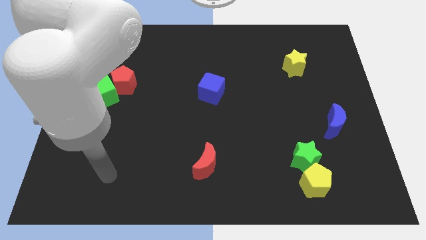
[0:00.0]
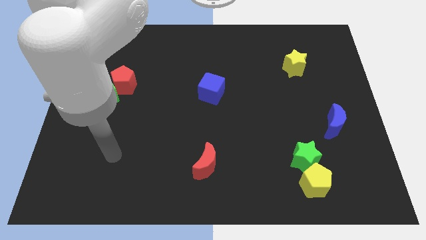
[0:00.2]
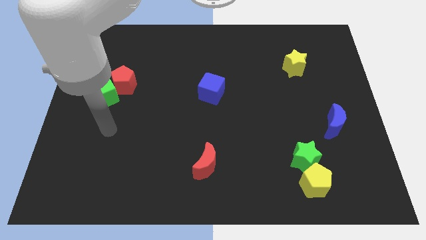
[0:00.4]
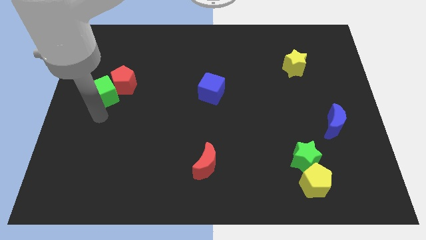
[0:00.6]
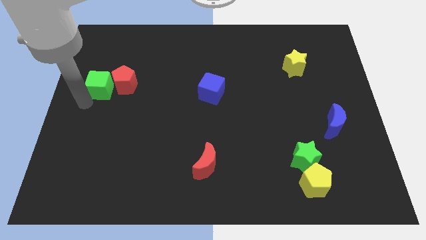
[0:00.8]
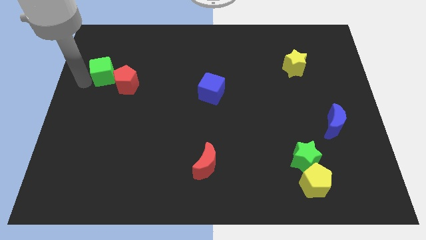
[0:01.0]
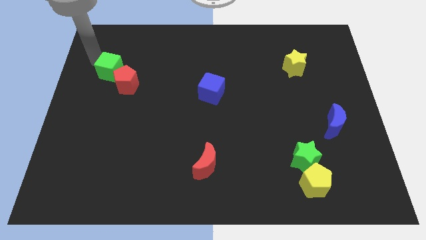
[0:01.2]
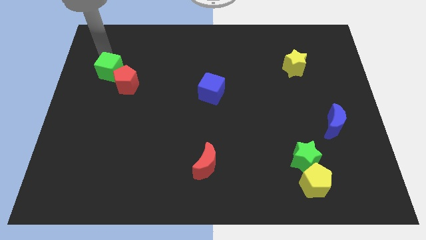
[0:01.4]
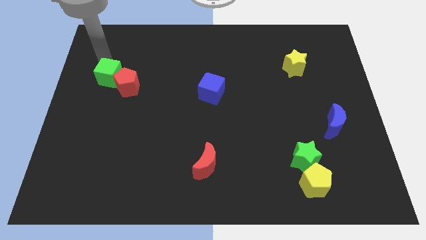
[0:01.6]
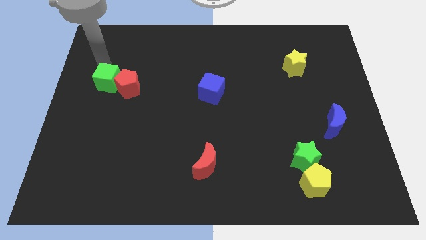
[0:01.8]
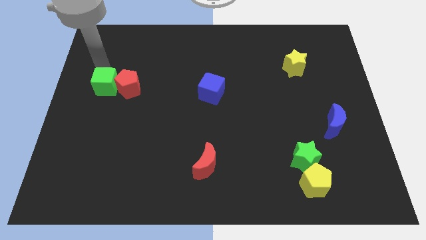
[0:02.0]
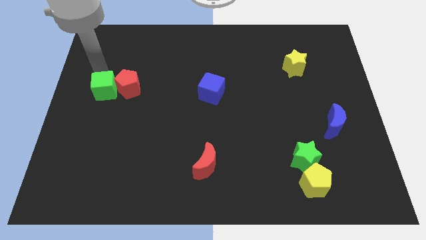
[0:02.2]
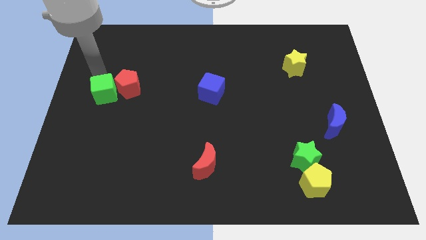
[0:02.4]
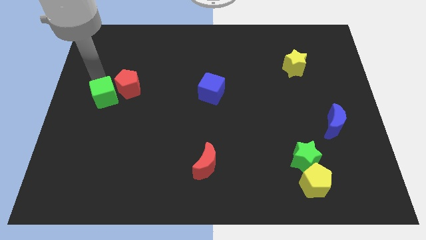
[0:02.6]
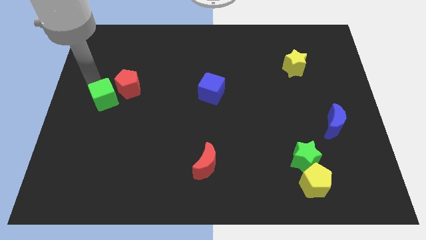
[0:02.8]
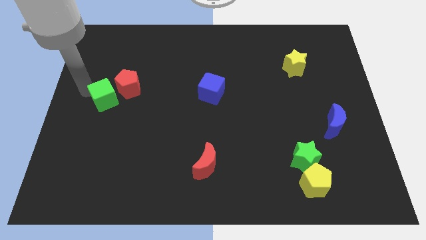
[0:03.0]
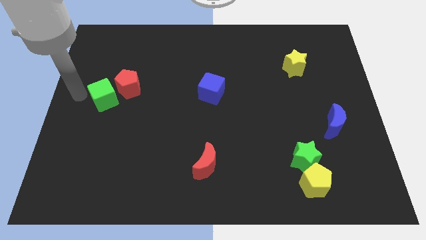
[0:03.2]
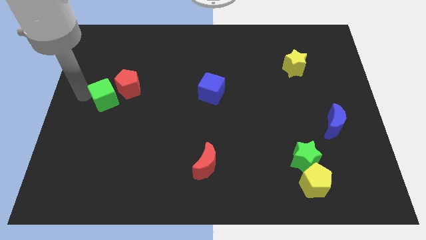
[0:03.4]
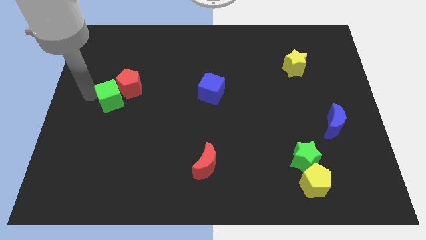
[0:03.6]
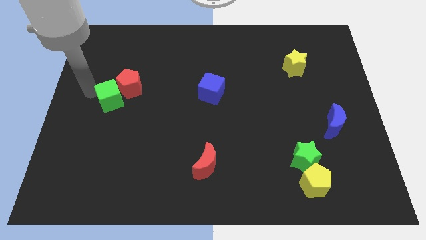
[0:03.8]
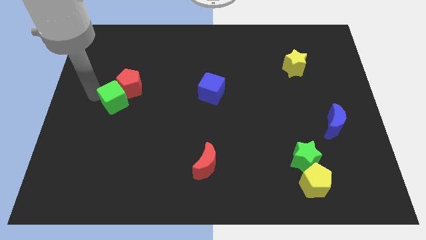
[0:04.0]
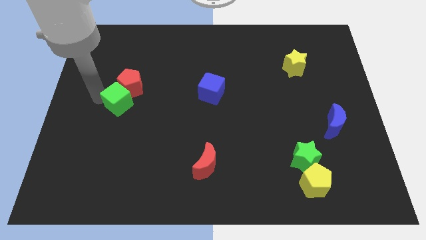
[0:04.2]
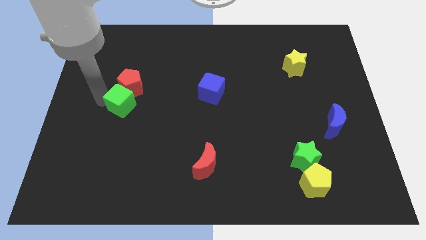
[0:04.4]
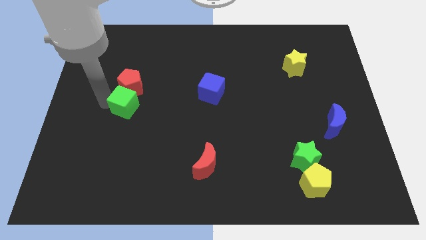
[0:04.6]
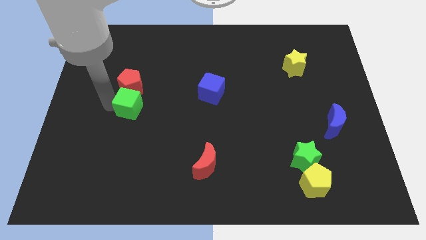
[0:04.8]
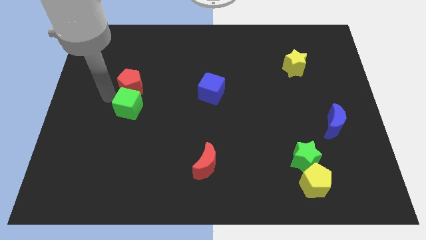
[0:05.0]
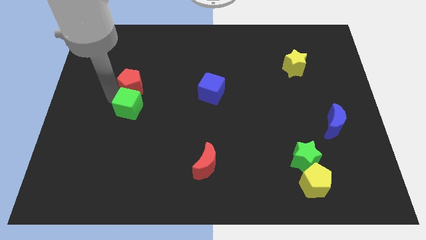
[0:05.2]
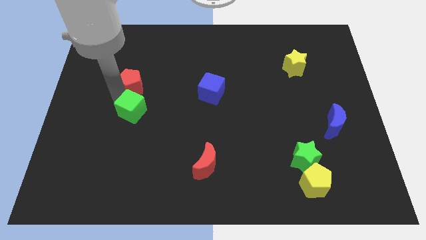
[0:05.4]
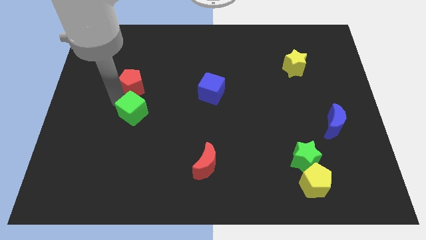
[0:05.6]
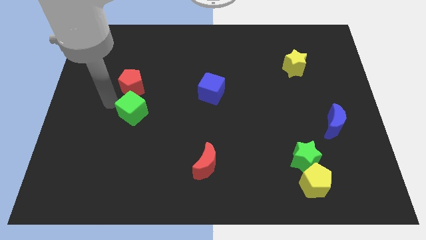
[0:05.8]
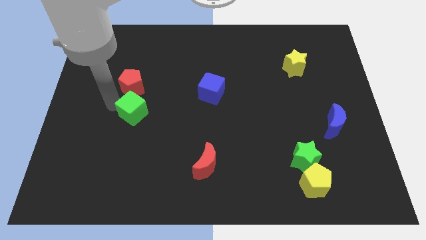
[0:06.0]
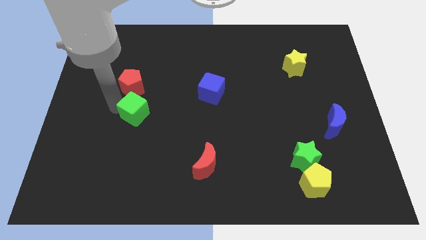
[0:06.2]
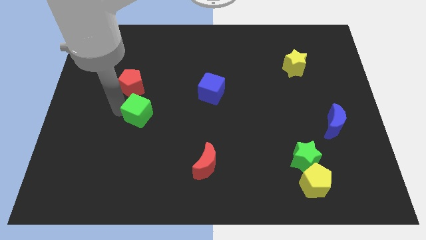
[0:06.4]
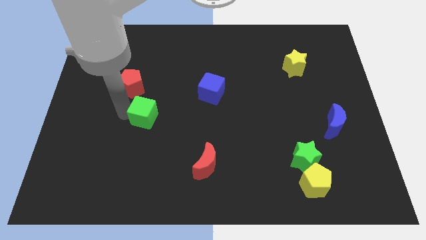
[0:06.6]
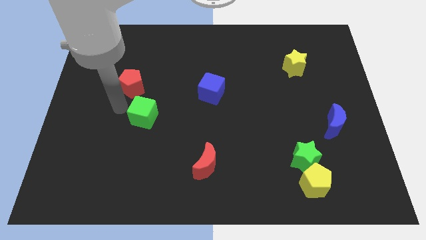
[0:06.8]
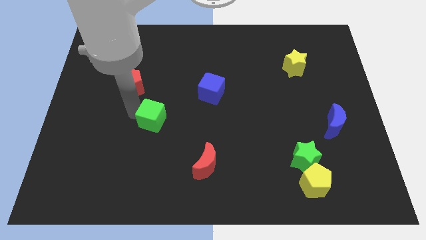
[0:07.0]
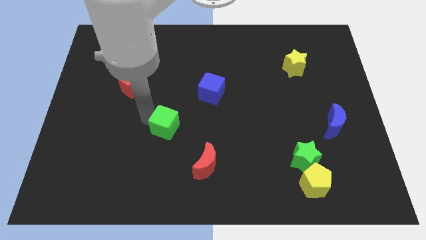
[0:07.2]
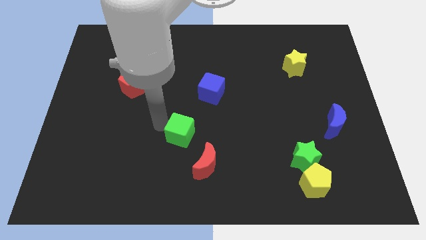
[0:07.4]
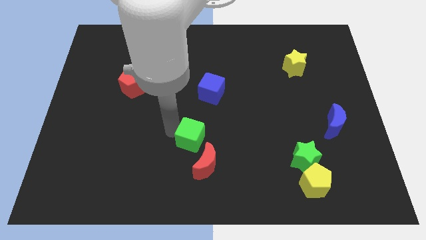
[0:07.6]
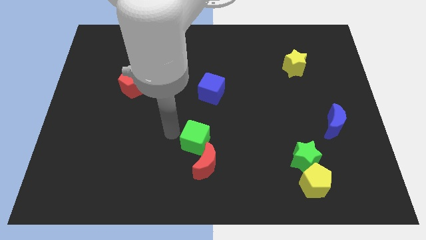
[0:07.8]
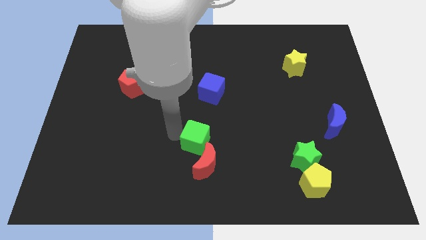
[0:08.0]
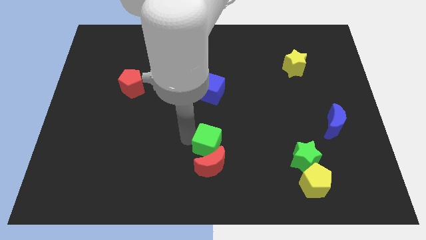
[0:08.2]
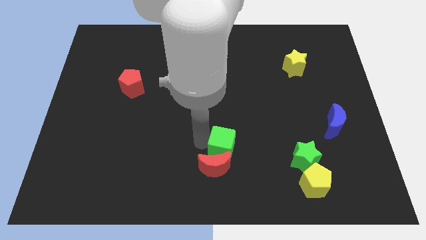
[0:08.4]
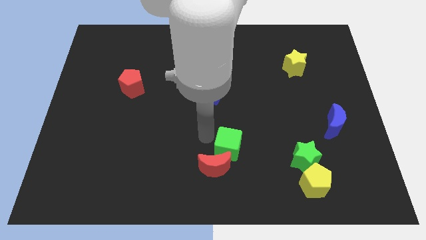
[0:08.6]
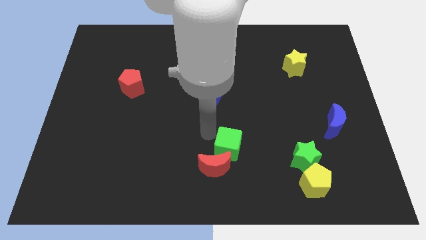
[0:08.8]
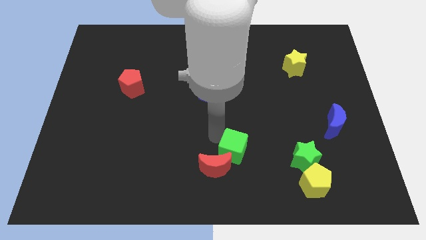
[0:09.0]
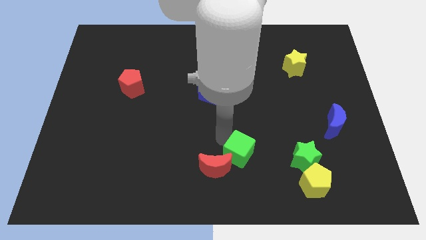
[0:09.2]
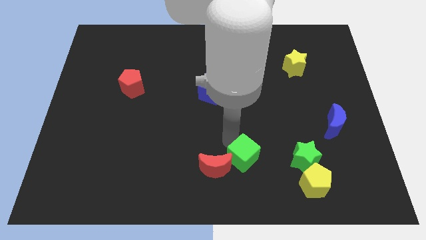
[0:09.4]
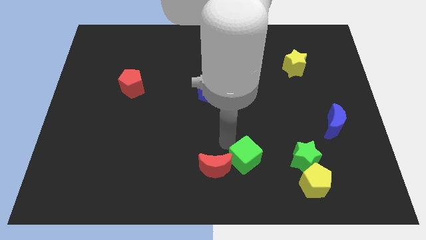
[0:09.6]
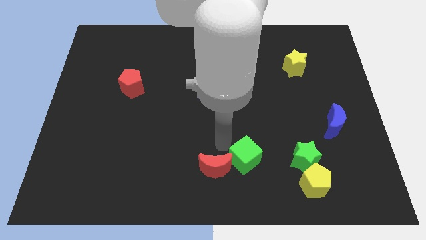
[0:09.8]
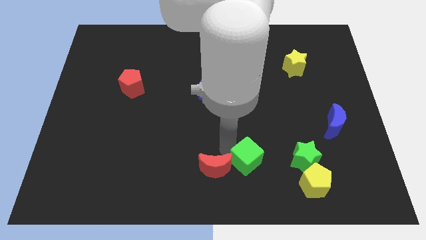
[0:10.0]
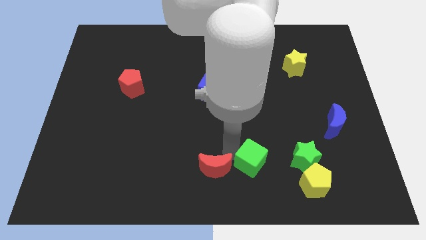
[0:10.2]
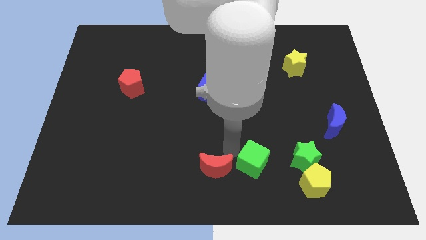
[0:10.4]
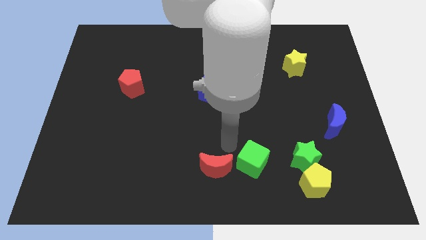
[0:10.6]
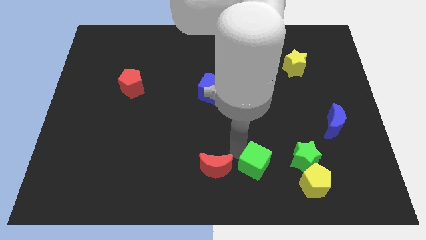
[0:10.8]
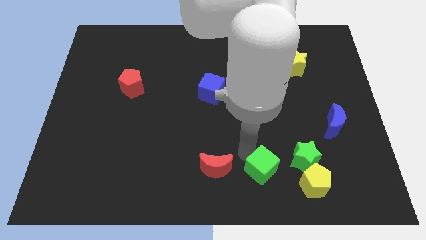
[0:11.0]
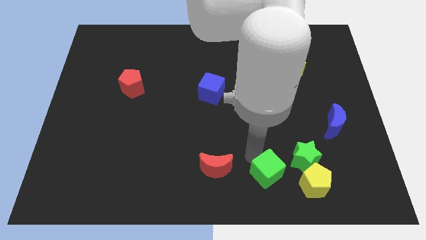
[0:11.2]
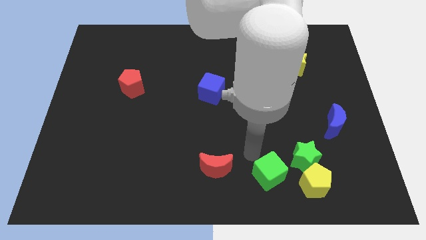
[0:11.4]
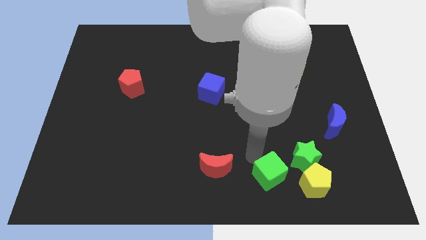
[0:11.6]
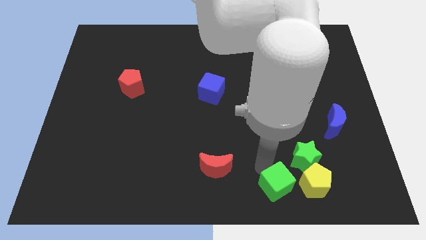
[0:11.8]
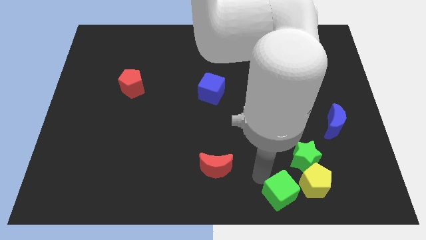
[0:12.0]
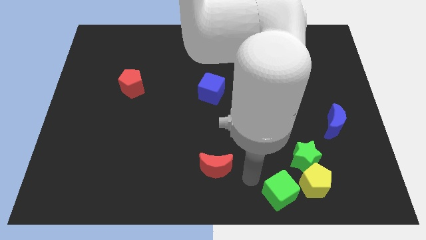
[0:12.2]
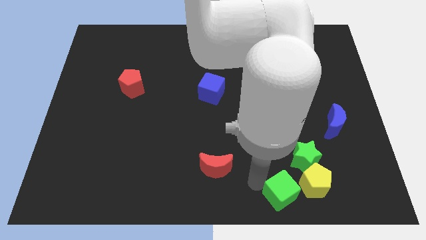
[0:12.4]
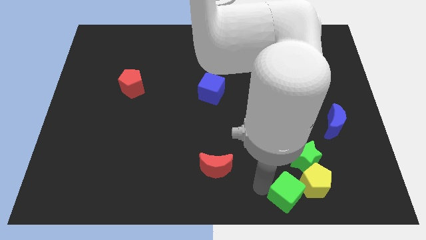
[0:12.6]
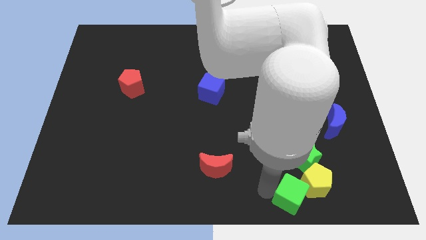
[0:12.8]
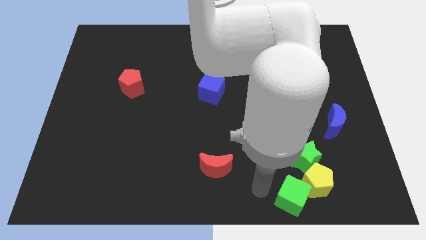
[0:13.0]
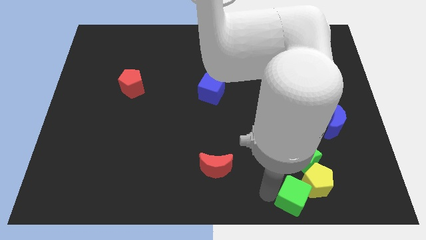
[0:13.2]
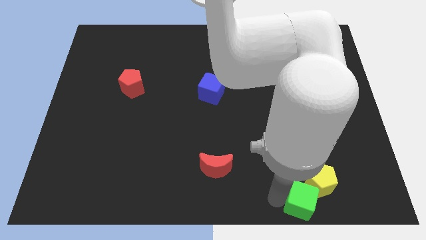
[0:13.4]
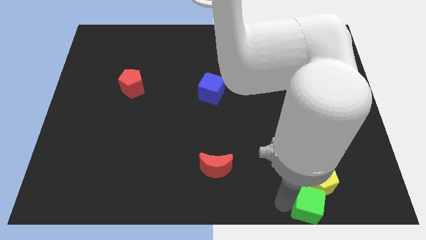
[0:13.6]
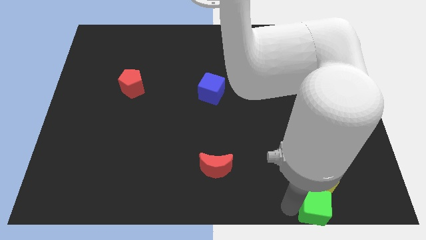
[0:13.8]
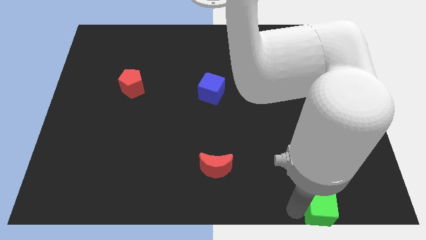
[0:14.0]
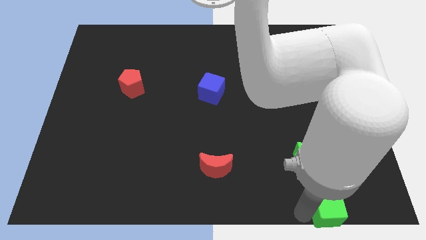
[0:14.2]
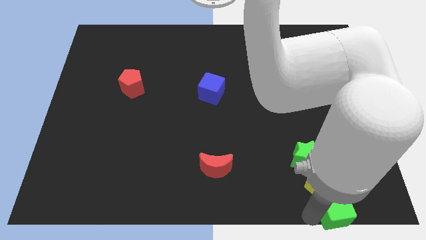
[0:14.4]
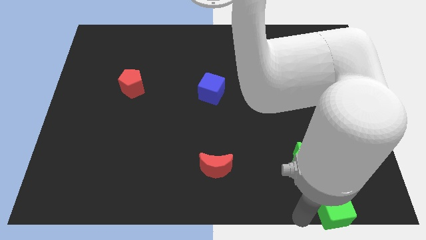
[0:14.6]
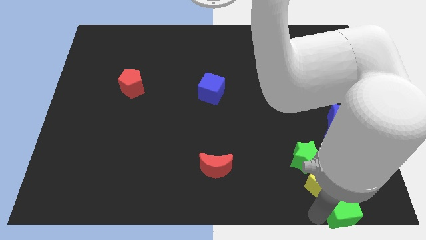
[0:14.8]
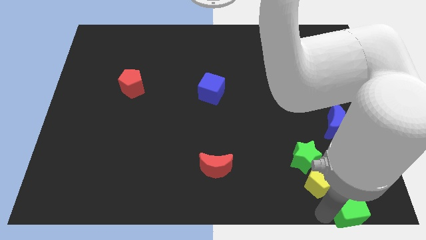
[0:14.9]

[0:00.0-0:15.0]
push the green cube to the bottom right
